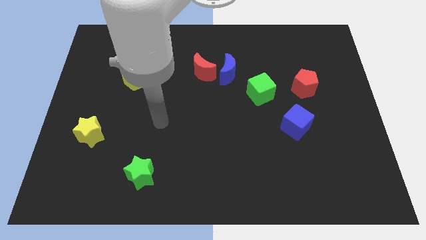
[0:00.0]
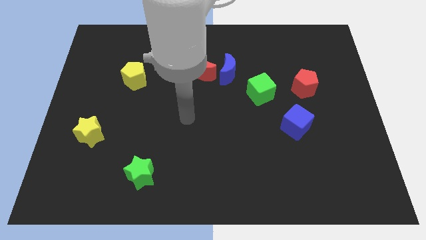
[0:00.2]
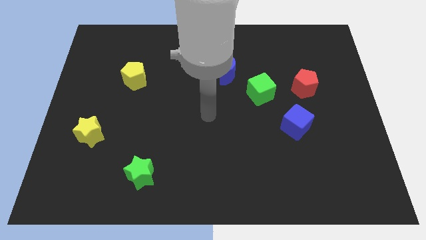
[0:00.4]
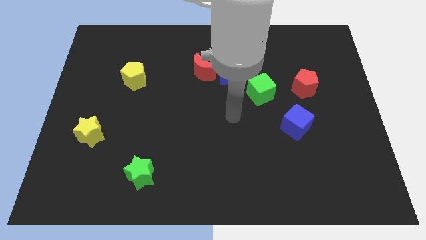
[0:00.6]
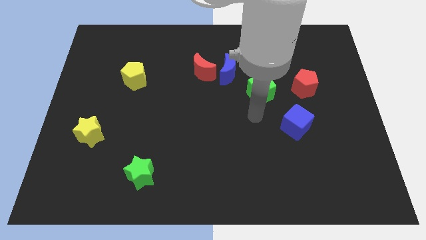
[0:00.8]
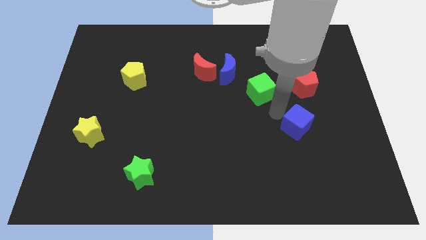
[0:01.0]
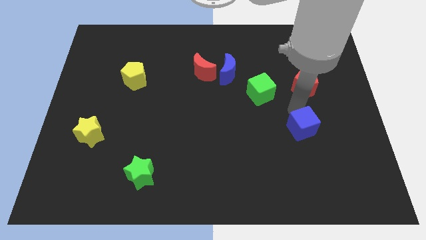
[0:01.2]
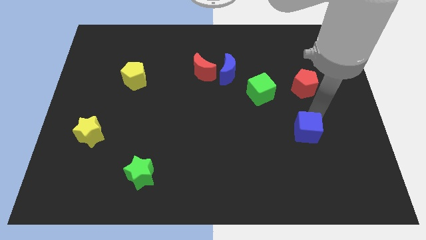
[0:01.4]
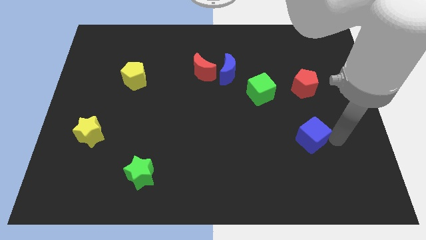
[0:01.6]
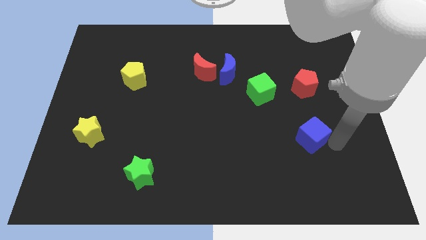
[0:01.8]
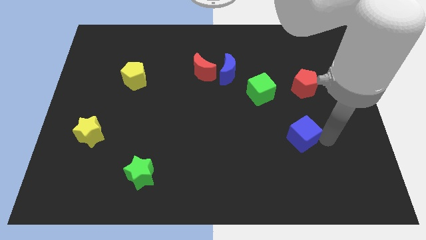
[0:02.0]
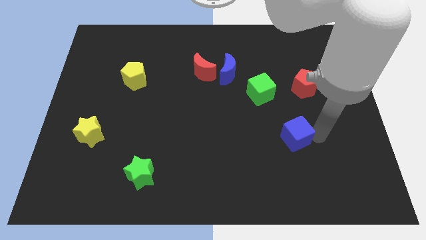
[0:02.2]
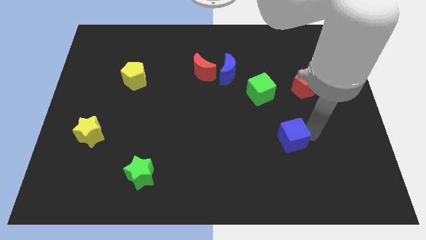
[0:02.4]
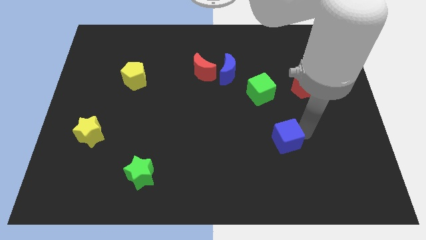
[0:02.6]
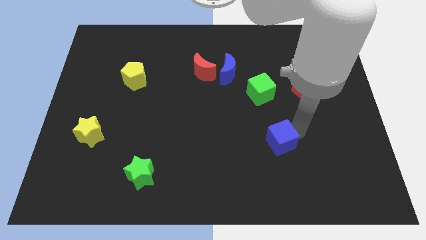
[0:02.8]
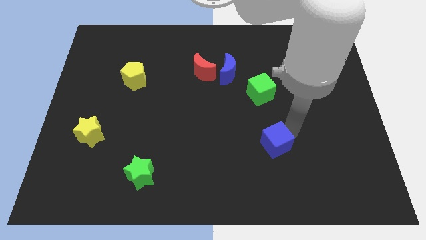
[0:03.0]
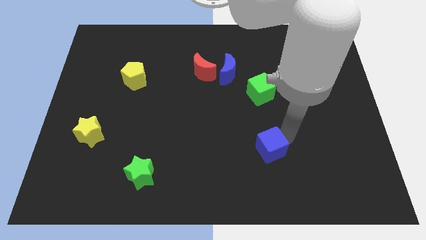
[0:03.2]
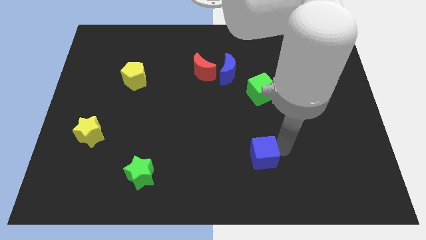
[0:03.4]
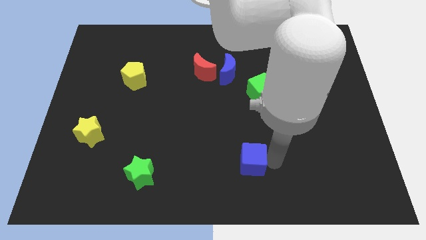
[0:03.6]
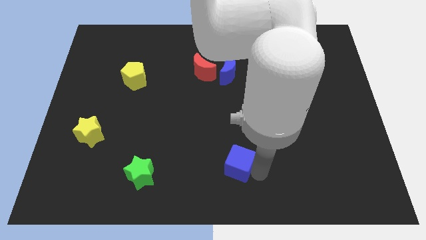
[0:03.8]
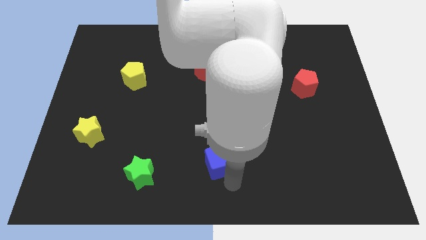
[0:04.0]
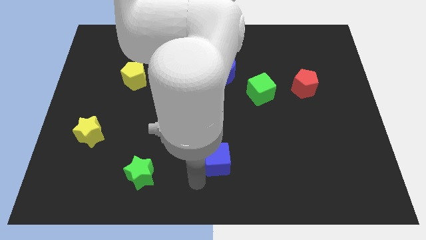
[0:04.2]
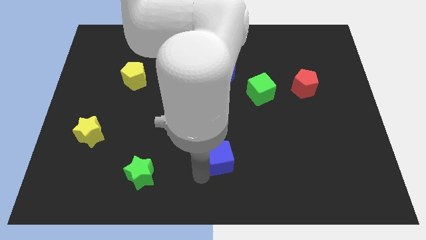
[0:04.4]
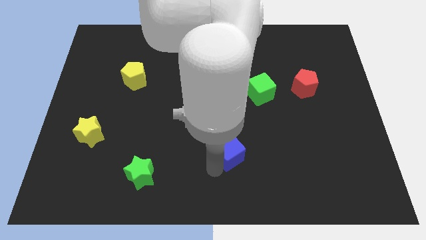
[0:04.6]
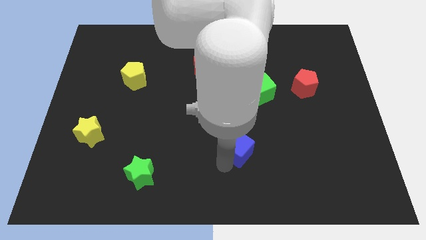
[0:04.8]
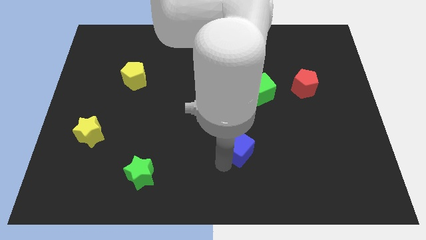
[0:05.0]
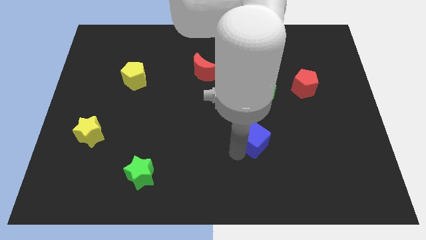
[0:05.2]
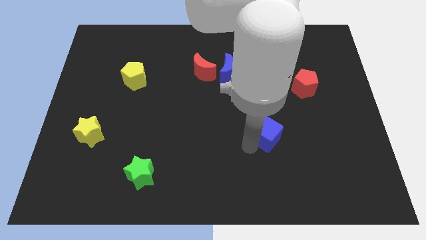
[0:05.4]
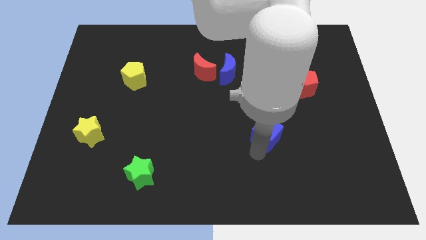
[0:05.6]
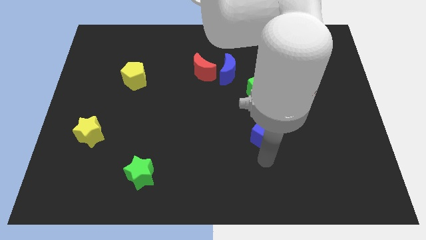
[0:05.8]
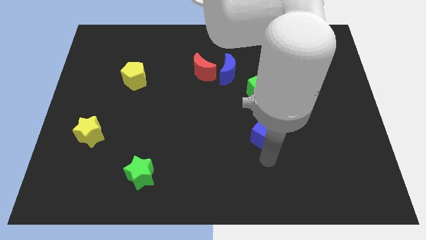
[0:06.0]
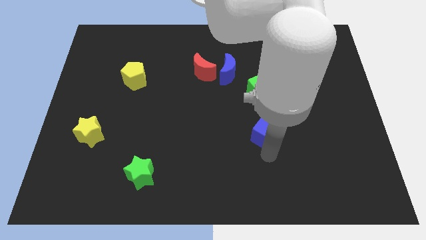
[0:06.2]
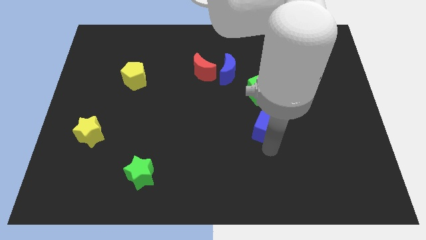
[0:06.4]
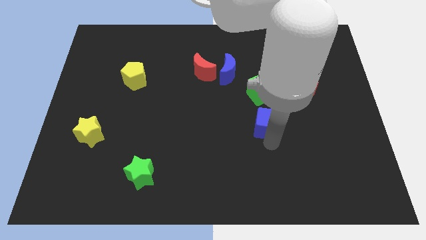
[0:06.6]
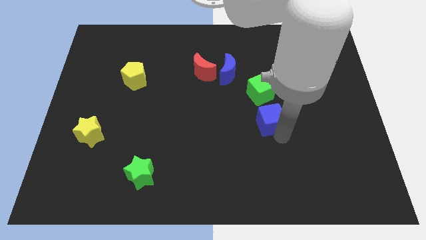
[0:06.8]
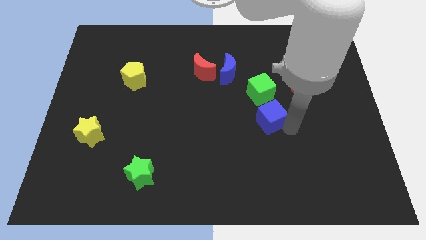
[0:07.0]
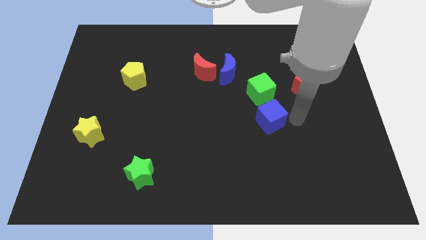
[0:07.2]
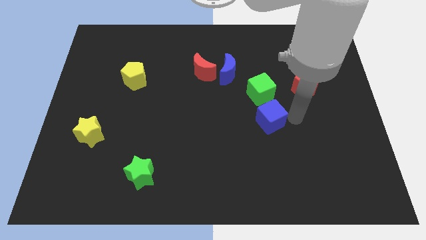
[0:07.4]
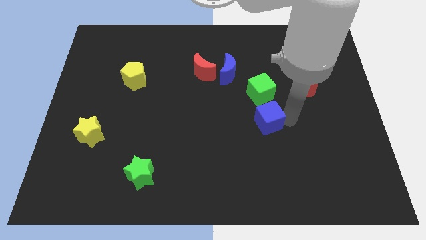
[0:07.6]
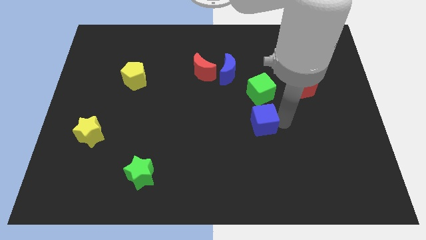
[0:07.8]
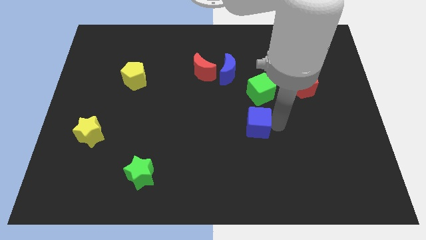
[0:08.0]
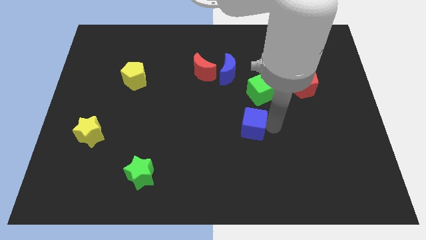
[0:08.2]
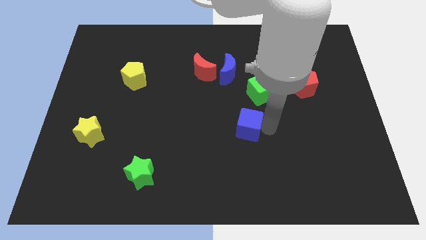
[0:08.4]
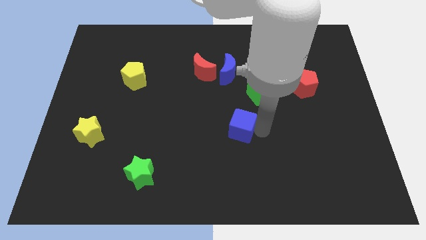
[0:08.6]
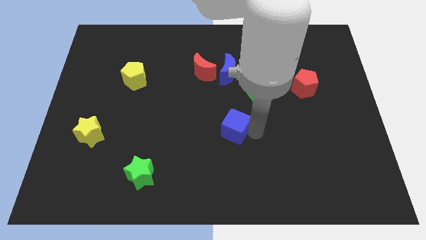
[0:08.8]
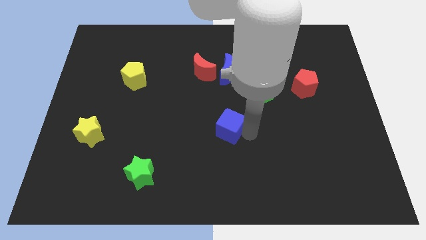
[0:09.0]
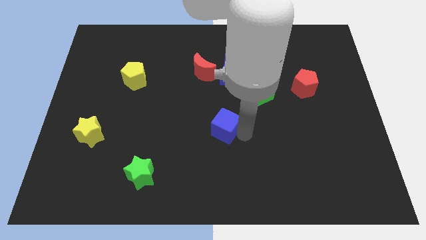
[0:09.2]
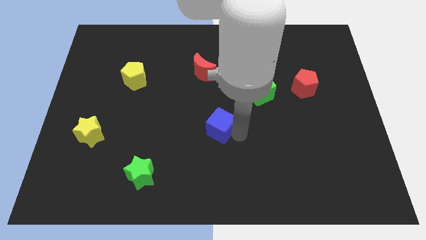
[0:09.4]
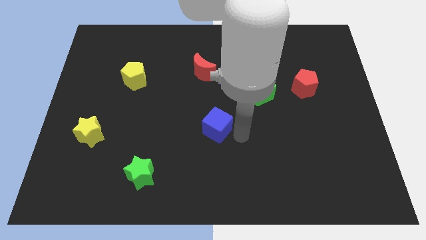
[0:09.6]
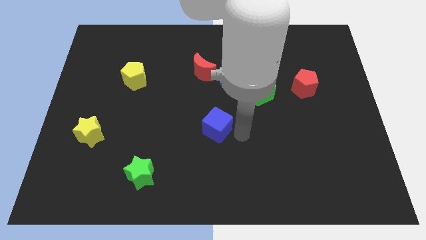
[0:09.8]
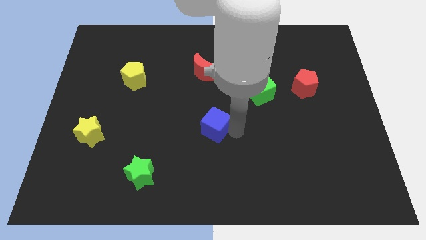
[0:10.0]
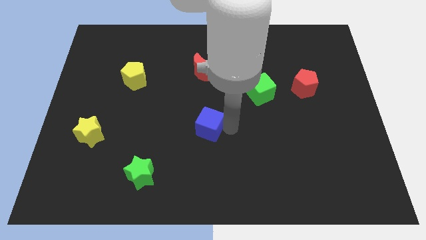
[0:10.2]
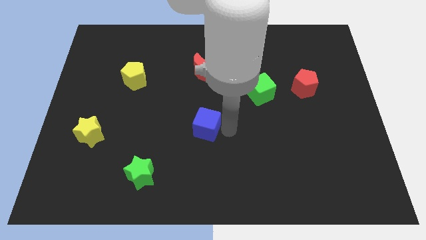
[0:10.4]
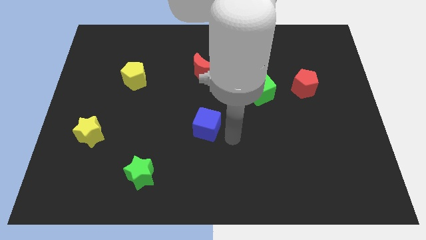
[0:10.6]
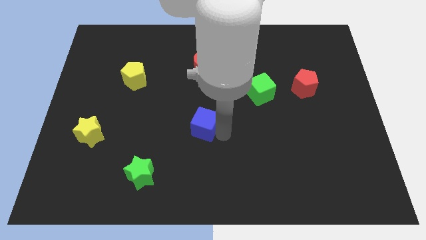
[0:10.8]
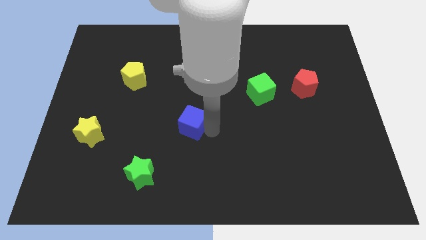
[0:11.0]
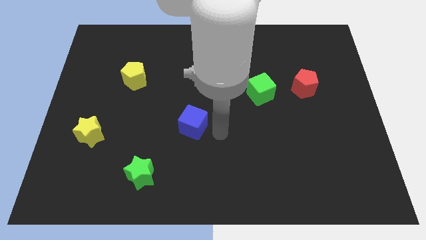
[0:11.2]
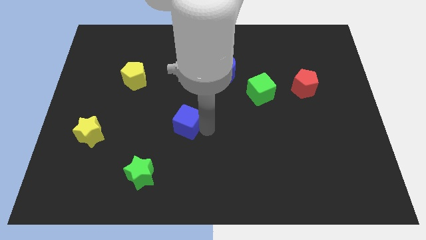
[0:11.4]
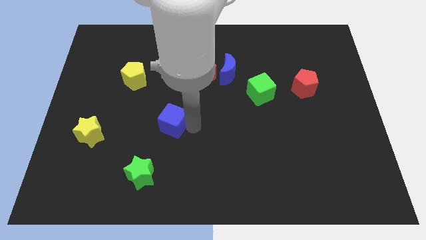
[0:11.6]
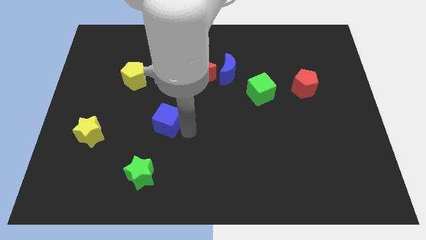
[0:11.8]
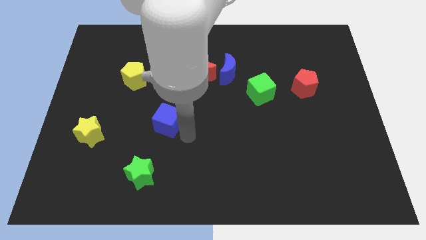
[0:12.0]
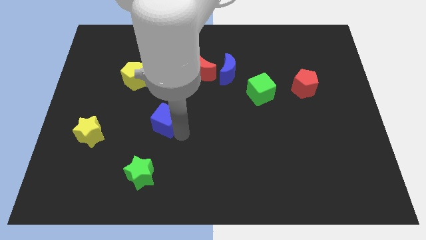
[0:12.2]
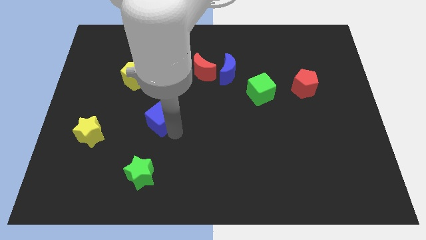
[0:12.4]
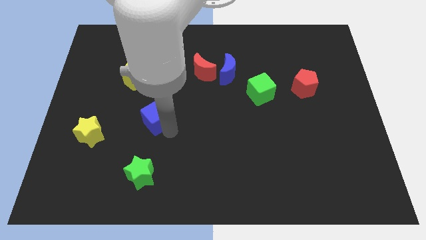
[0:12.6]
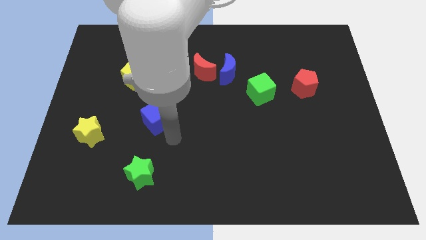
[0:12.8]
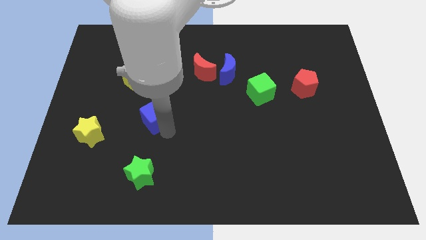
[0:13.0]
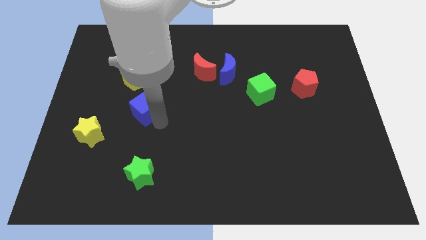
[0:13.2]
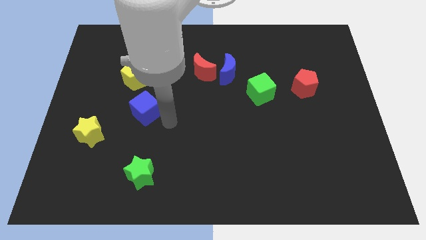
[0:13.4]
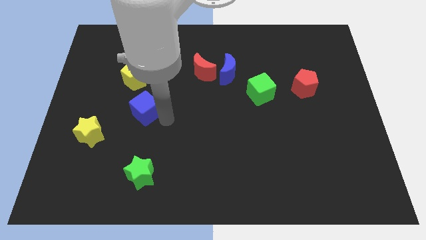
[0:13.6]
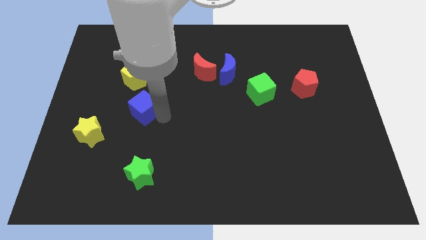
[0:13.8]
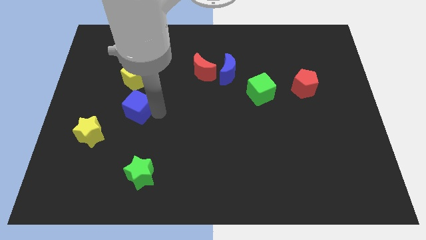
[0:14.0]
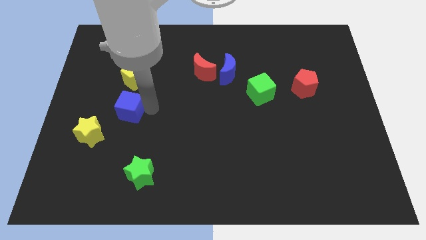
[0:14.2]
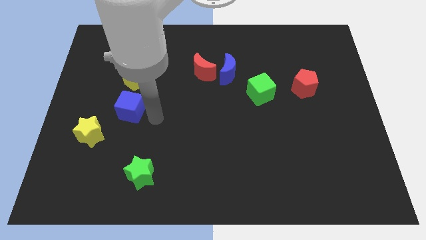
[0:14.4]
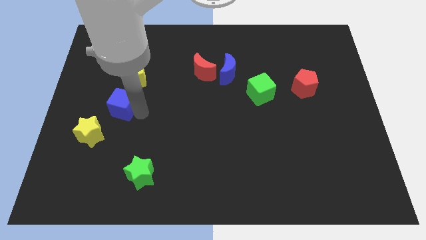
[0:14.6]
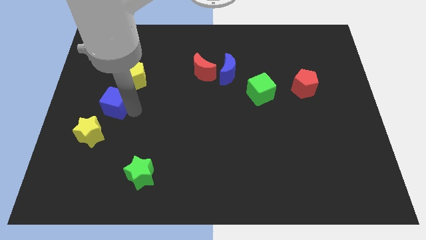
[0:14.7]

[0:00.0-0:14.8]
slide the blue cube to the top of the yellow star

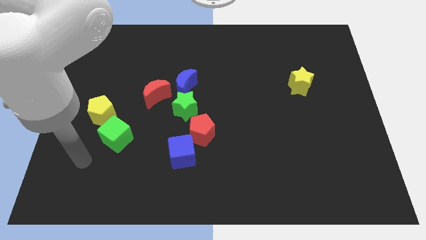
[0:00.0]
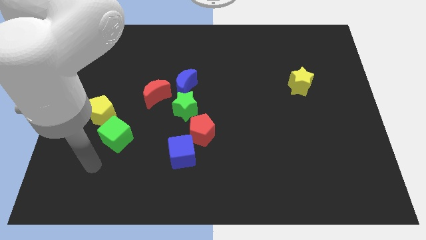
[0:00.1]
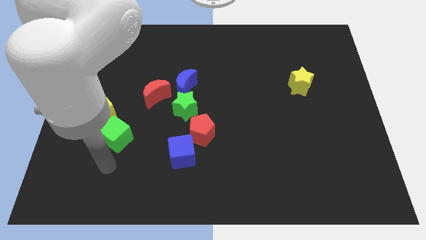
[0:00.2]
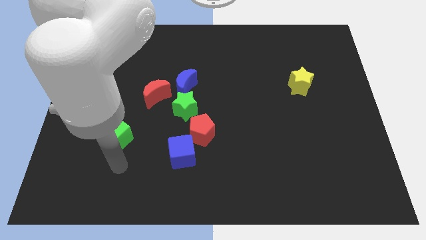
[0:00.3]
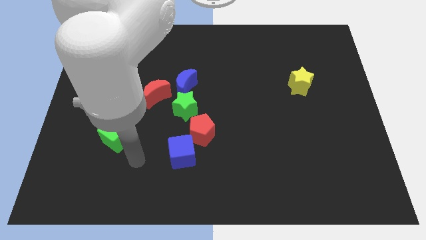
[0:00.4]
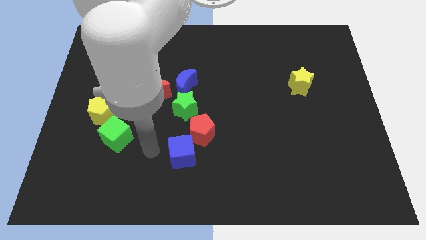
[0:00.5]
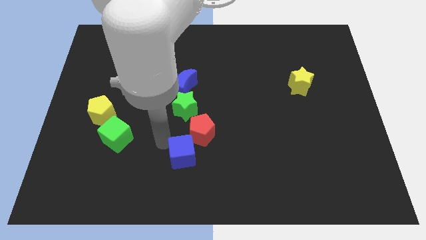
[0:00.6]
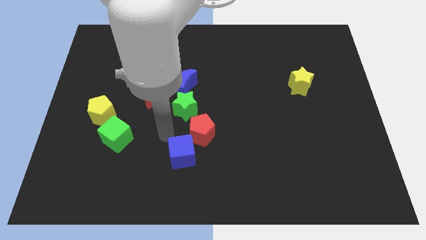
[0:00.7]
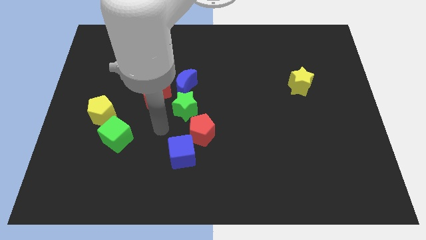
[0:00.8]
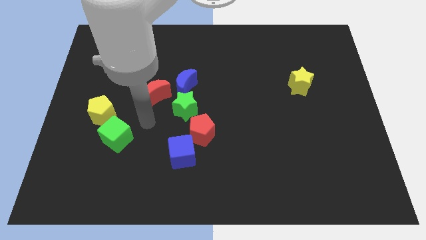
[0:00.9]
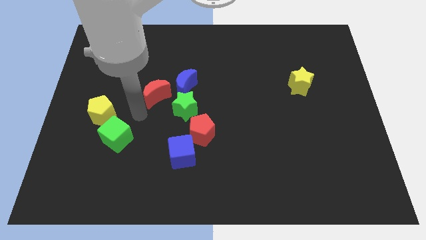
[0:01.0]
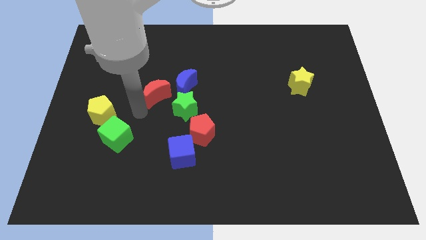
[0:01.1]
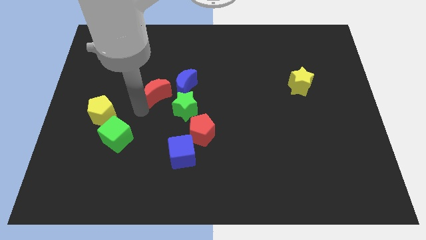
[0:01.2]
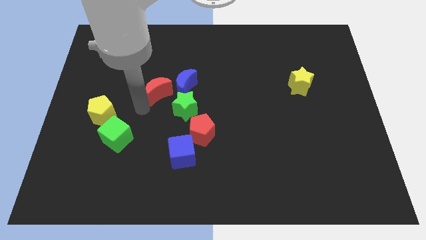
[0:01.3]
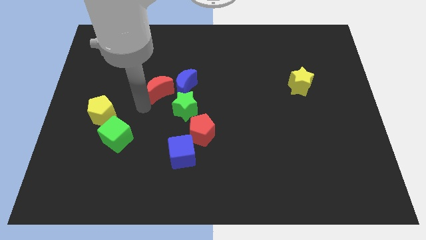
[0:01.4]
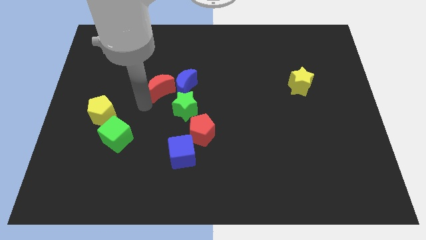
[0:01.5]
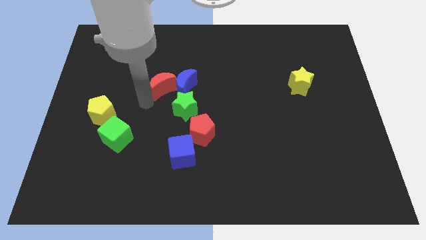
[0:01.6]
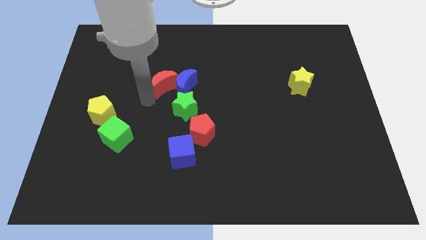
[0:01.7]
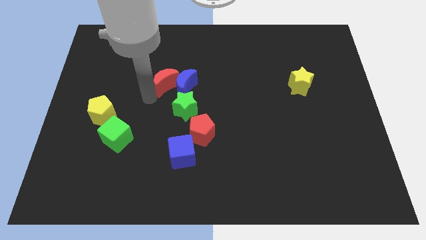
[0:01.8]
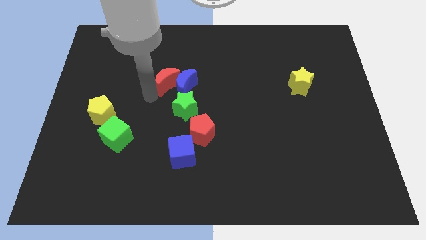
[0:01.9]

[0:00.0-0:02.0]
put the red moon to the top side of the green star
